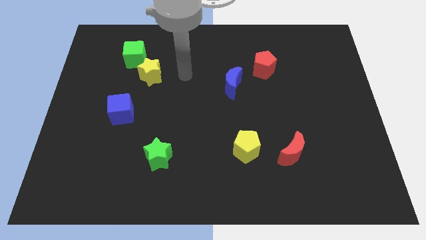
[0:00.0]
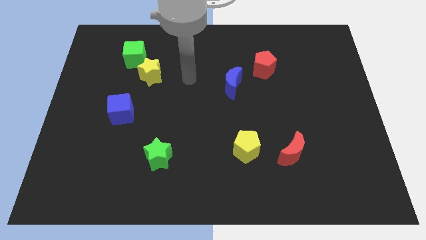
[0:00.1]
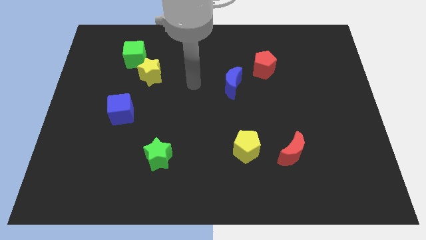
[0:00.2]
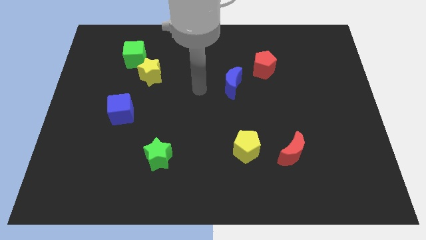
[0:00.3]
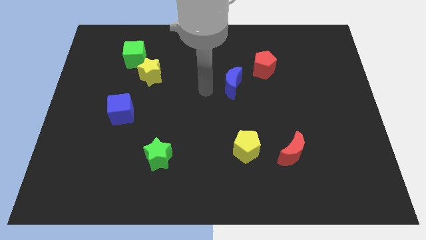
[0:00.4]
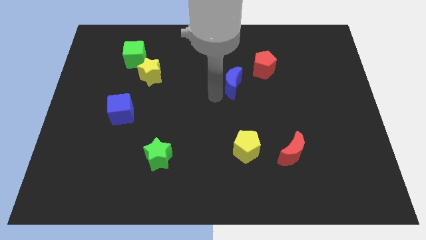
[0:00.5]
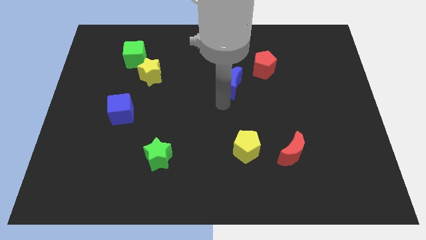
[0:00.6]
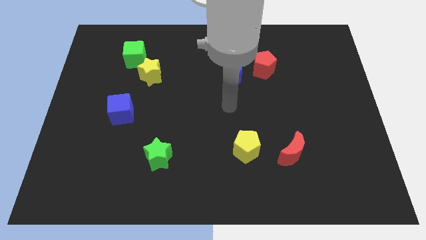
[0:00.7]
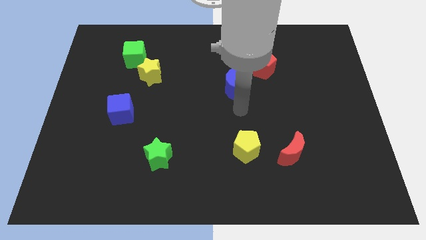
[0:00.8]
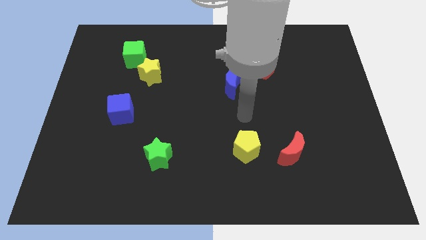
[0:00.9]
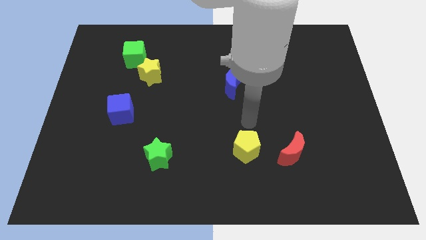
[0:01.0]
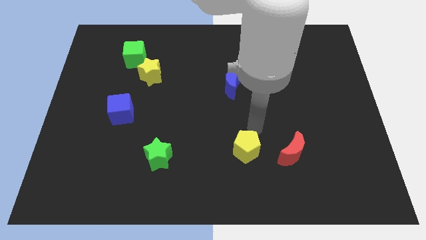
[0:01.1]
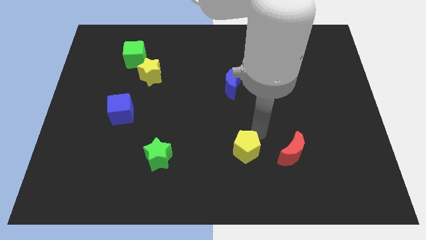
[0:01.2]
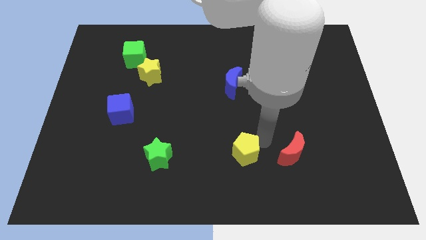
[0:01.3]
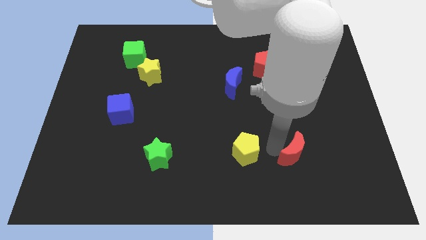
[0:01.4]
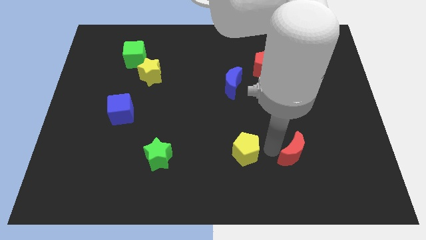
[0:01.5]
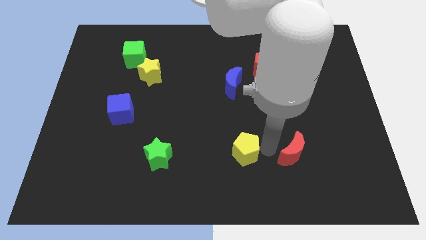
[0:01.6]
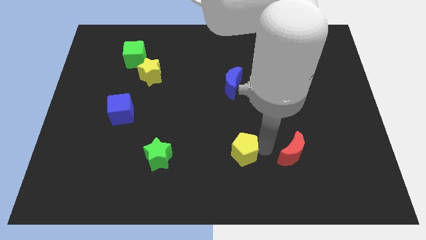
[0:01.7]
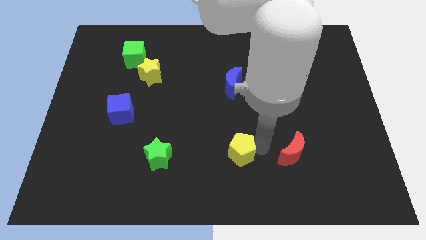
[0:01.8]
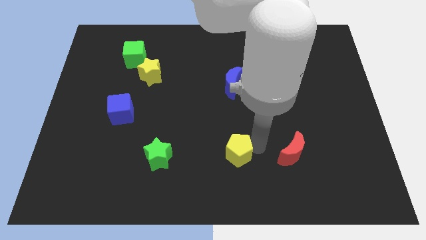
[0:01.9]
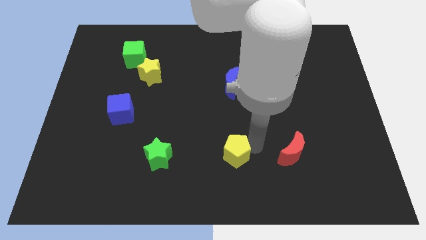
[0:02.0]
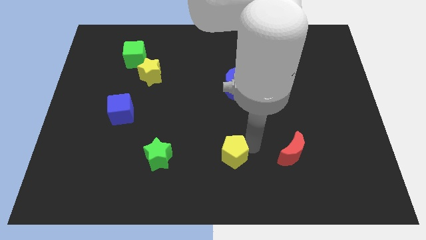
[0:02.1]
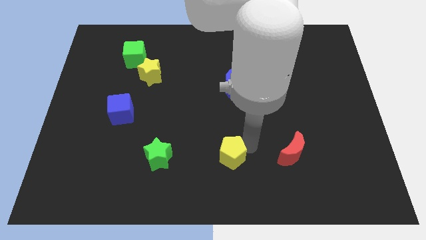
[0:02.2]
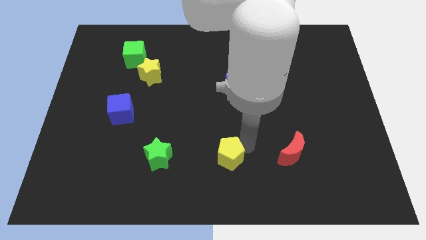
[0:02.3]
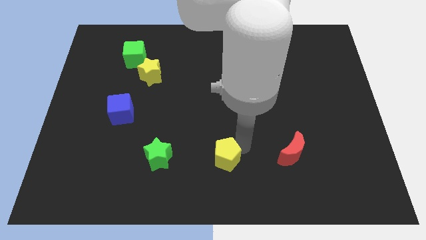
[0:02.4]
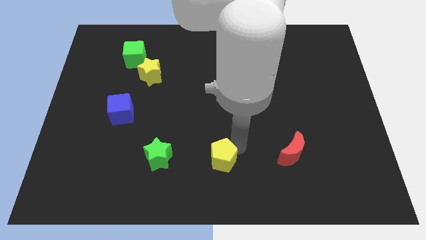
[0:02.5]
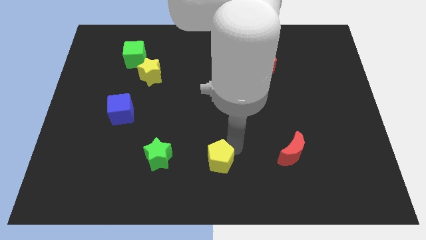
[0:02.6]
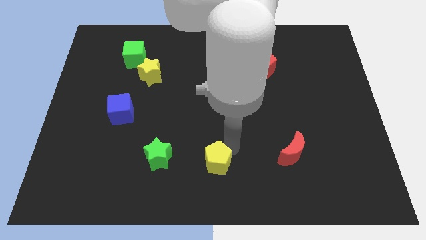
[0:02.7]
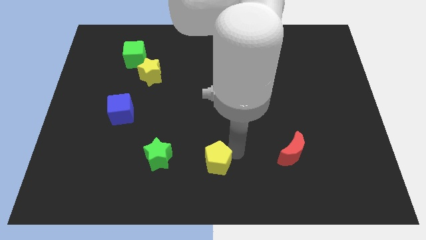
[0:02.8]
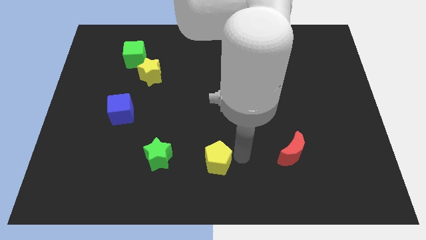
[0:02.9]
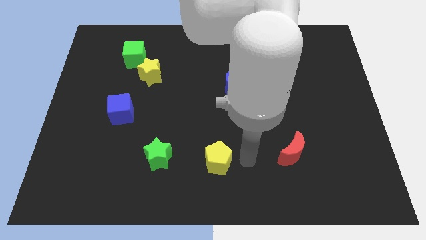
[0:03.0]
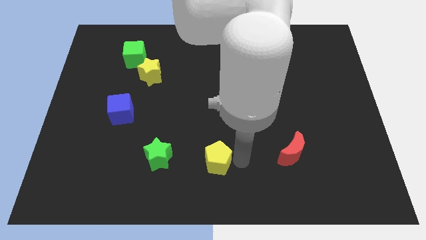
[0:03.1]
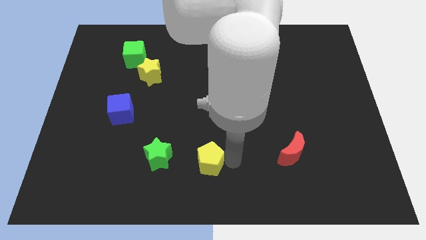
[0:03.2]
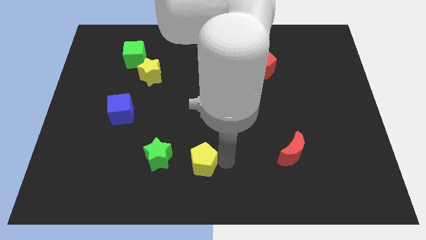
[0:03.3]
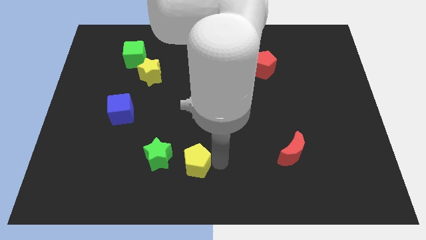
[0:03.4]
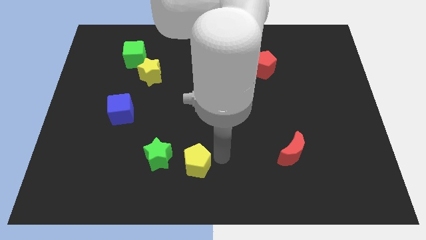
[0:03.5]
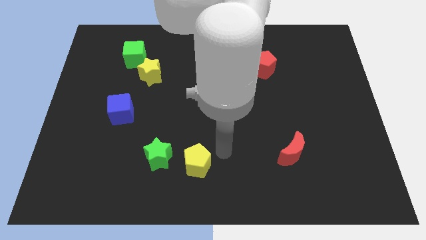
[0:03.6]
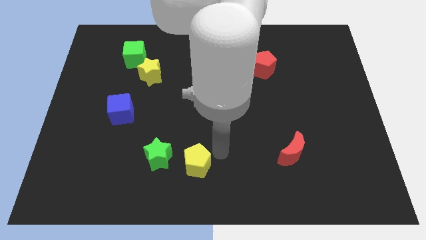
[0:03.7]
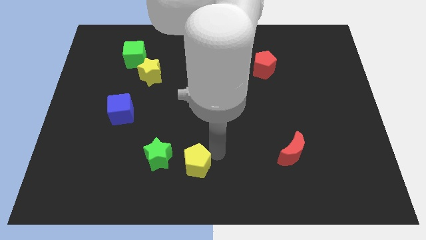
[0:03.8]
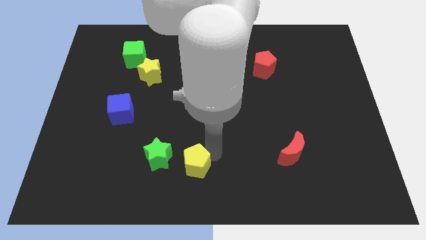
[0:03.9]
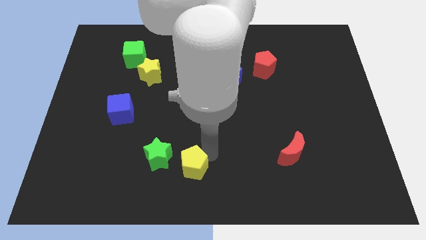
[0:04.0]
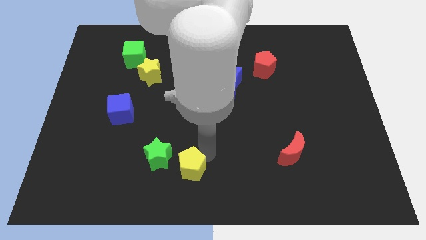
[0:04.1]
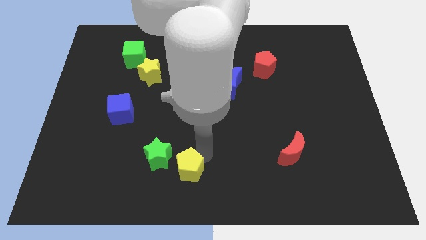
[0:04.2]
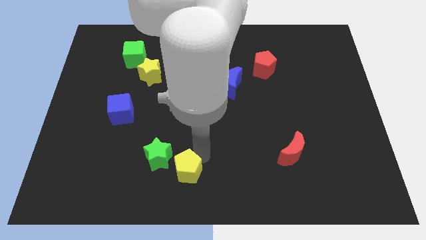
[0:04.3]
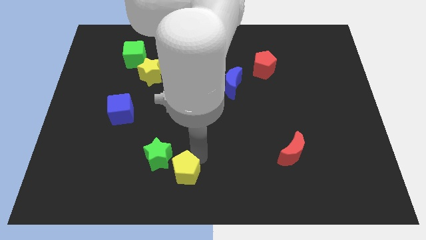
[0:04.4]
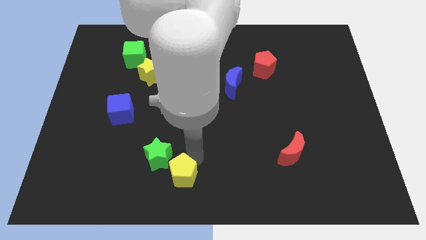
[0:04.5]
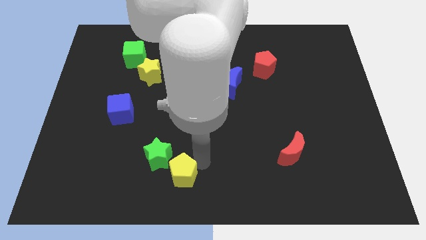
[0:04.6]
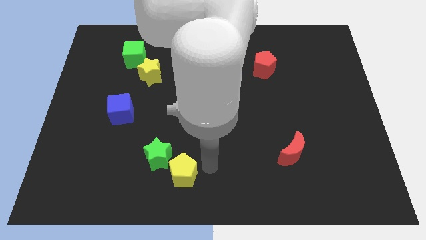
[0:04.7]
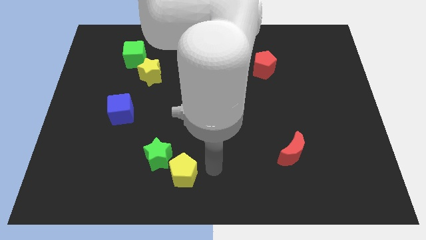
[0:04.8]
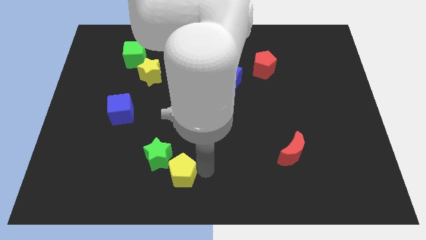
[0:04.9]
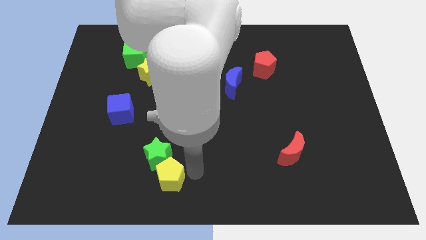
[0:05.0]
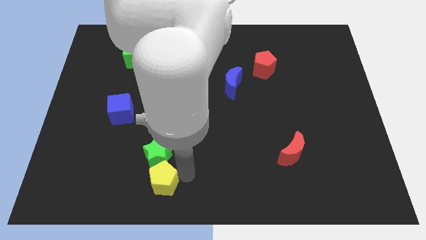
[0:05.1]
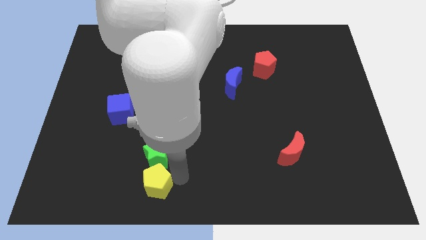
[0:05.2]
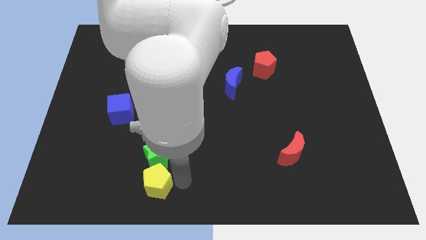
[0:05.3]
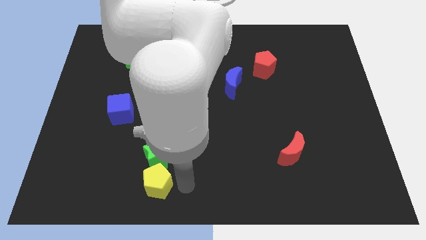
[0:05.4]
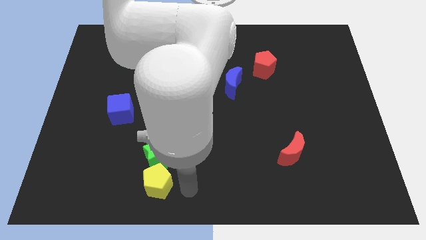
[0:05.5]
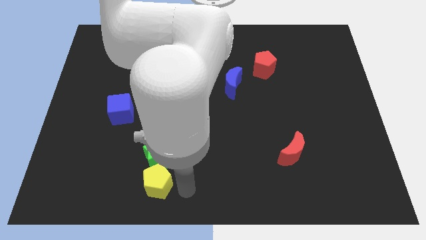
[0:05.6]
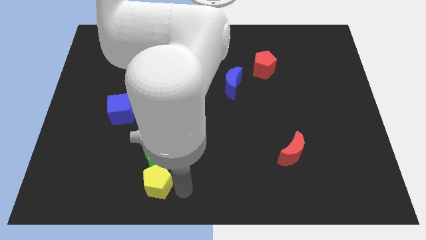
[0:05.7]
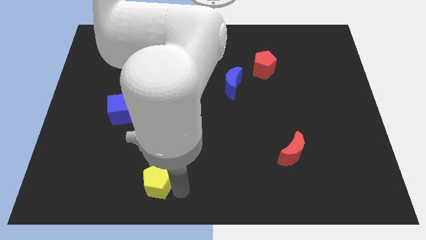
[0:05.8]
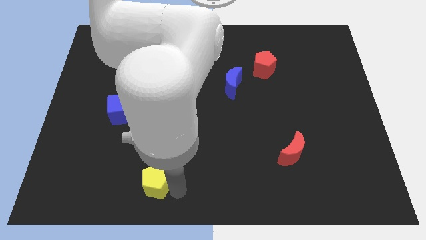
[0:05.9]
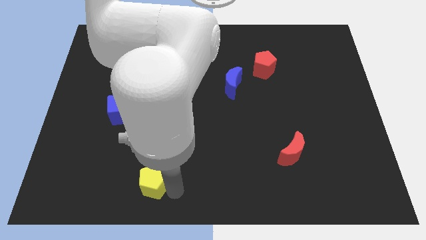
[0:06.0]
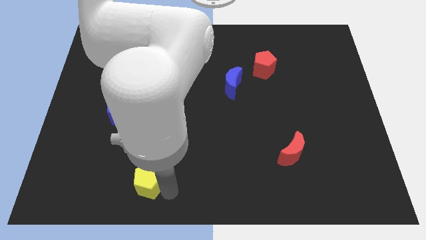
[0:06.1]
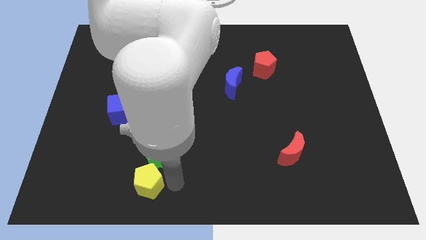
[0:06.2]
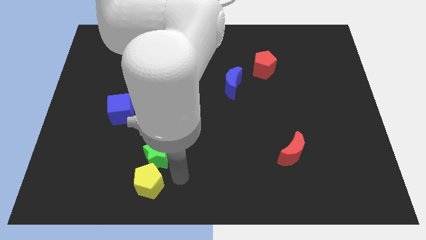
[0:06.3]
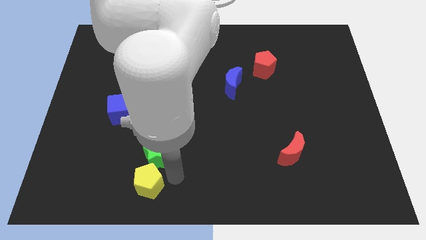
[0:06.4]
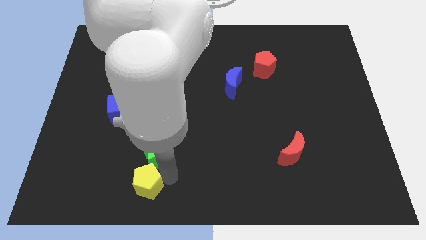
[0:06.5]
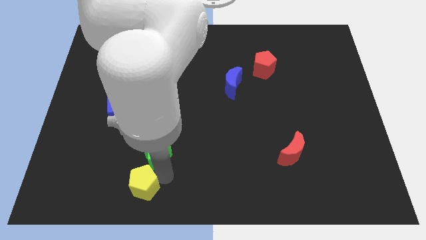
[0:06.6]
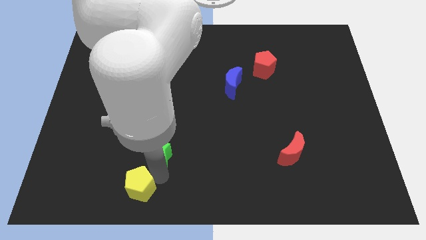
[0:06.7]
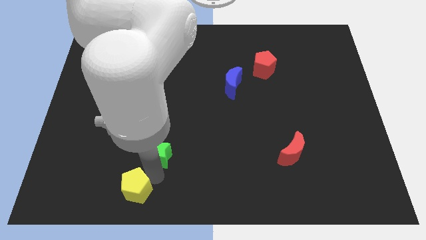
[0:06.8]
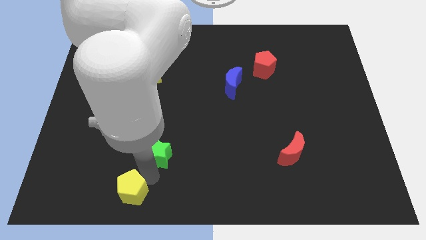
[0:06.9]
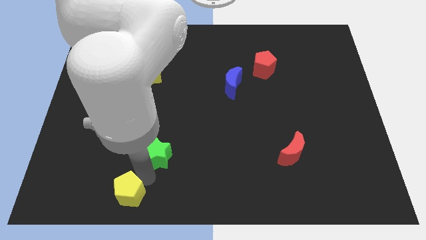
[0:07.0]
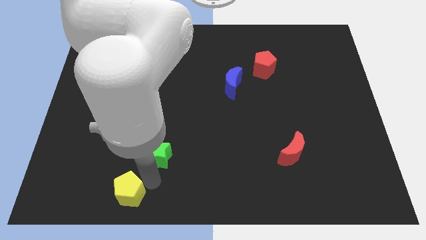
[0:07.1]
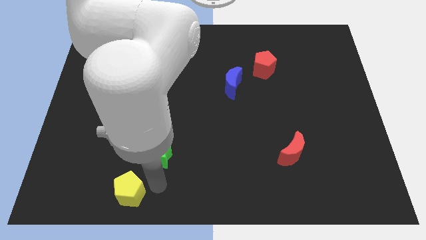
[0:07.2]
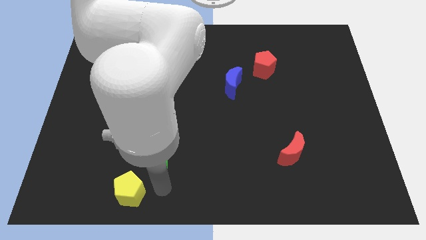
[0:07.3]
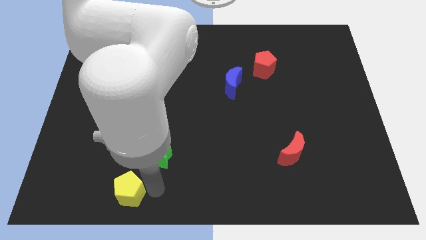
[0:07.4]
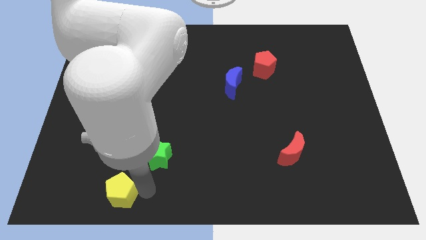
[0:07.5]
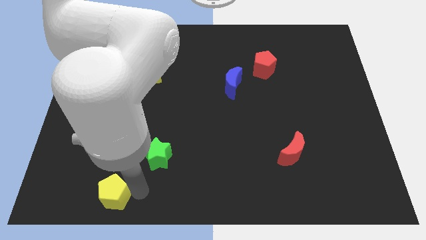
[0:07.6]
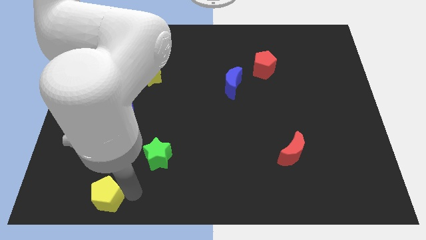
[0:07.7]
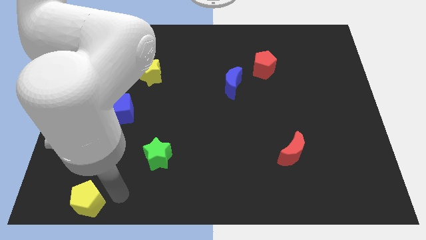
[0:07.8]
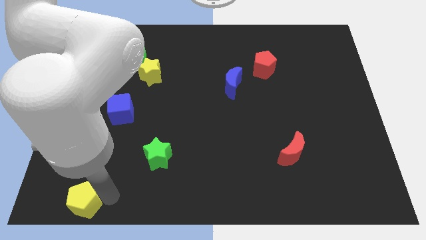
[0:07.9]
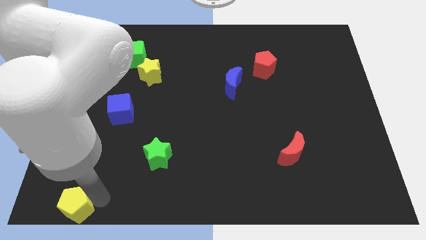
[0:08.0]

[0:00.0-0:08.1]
put the yellow pentagon to the lower left corner

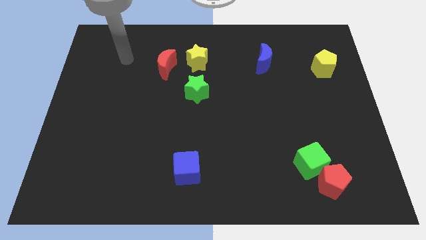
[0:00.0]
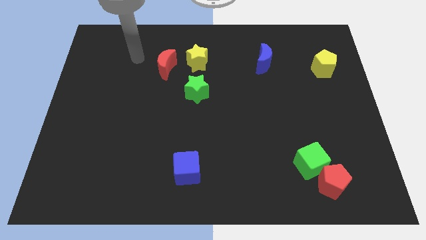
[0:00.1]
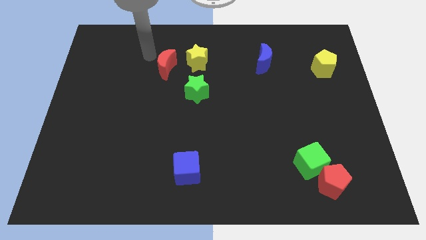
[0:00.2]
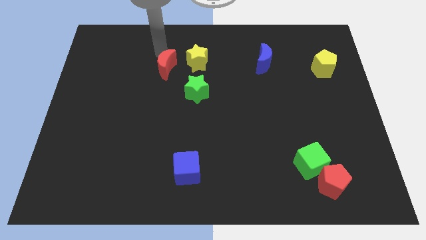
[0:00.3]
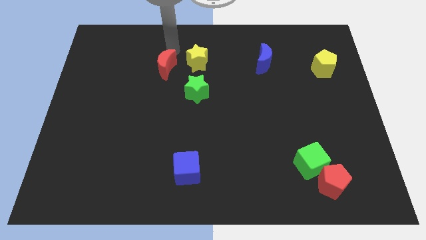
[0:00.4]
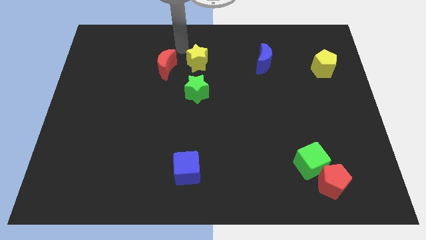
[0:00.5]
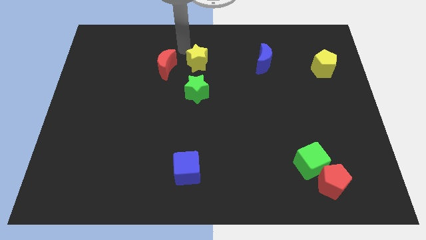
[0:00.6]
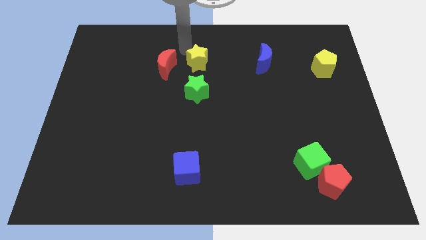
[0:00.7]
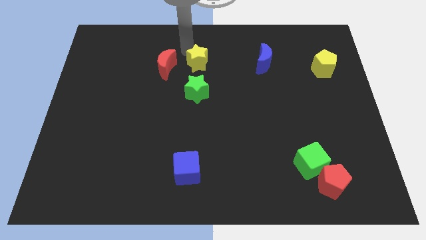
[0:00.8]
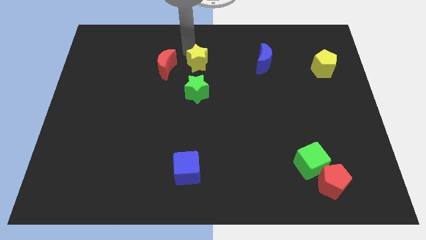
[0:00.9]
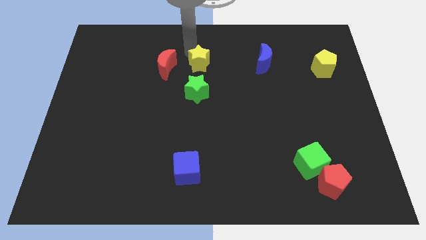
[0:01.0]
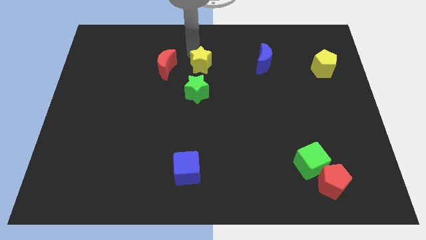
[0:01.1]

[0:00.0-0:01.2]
push the yellow star to the center
